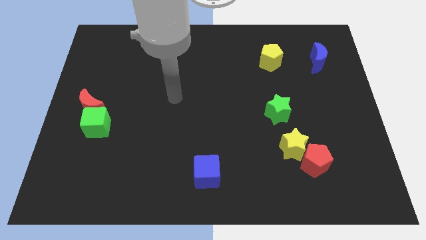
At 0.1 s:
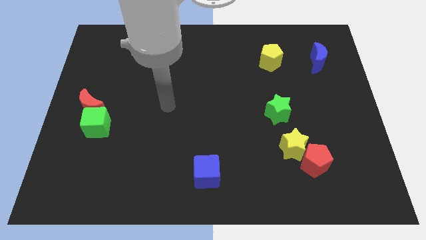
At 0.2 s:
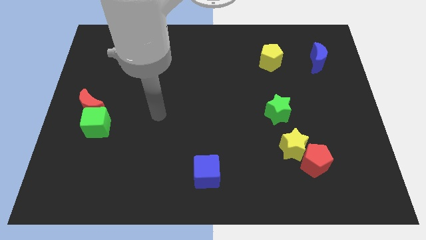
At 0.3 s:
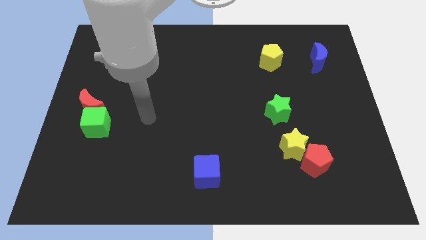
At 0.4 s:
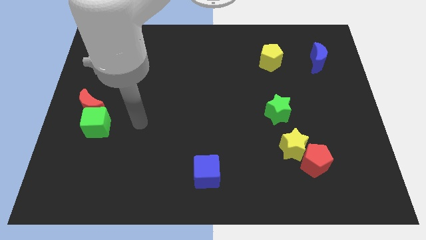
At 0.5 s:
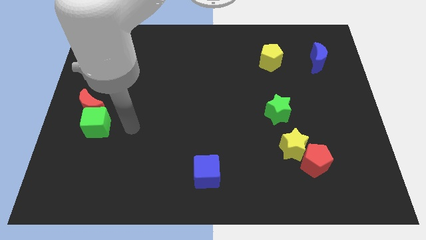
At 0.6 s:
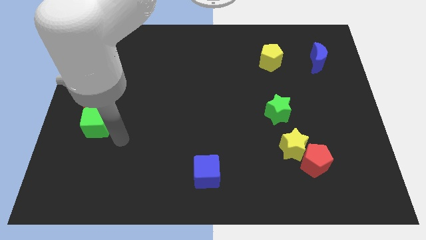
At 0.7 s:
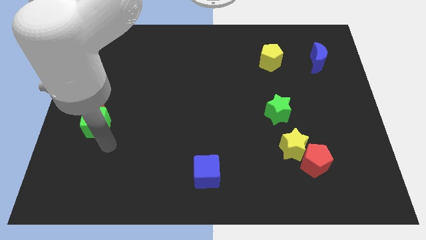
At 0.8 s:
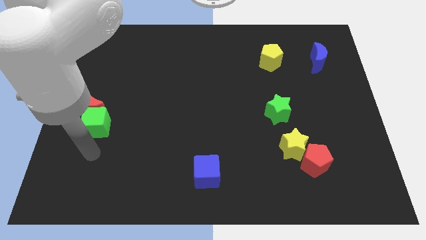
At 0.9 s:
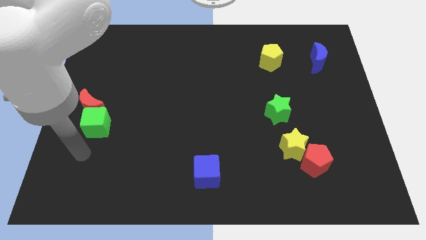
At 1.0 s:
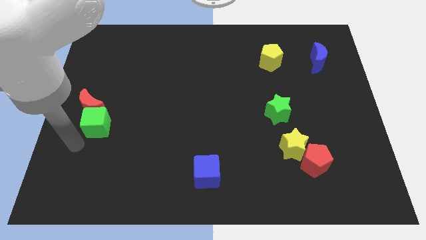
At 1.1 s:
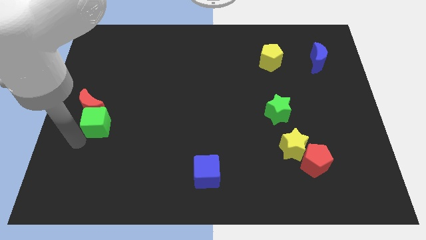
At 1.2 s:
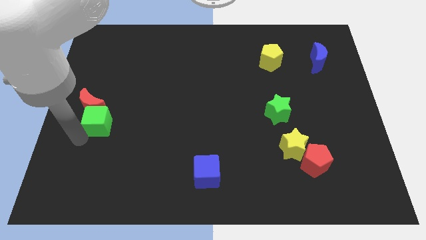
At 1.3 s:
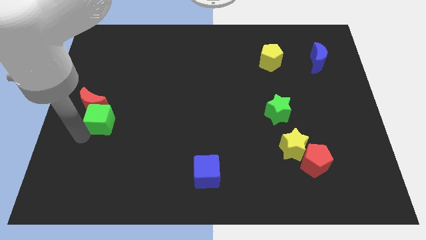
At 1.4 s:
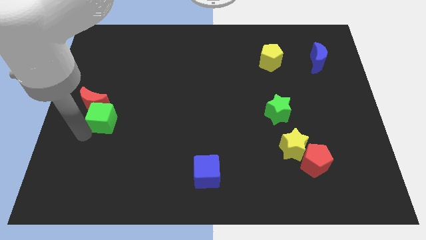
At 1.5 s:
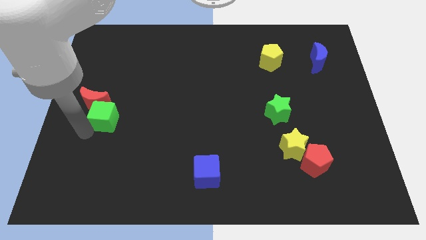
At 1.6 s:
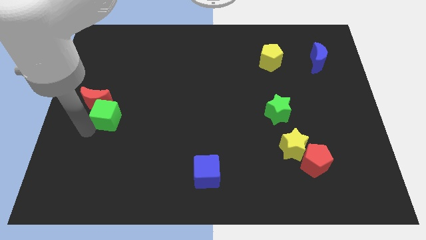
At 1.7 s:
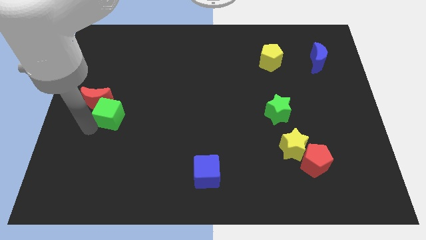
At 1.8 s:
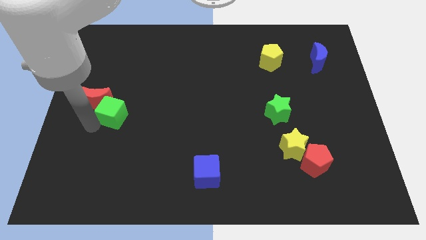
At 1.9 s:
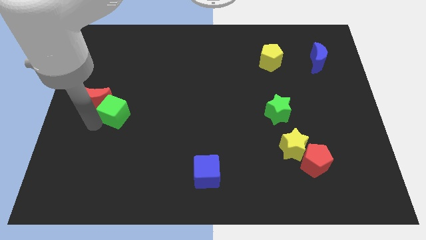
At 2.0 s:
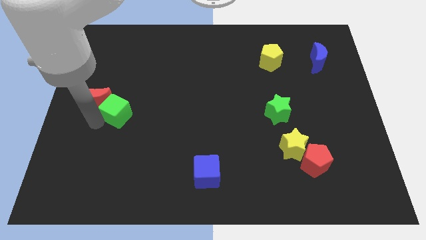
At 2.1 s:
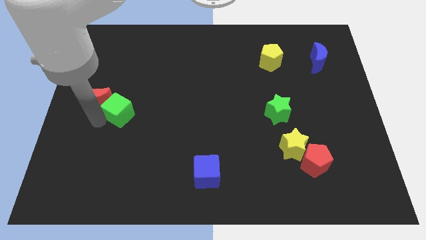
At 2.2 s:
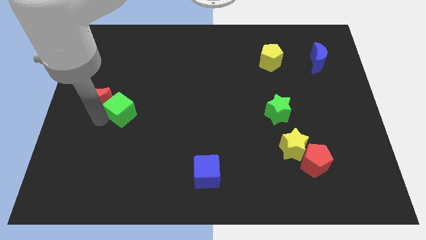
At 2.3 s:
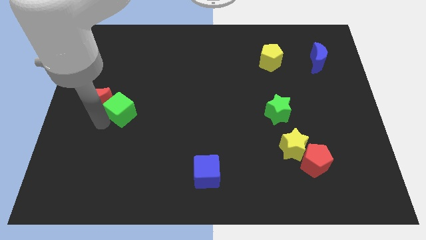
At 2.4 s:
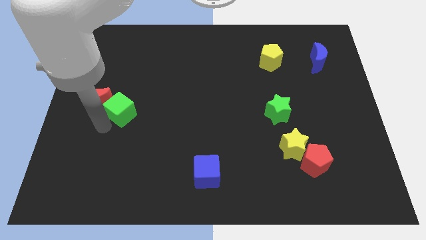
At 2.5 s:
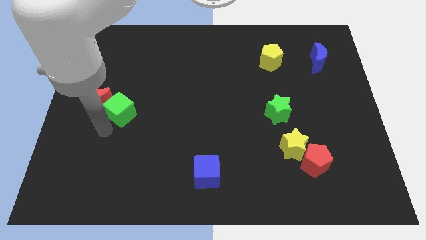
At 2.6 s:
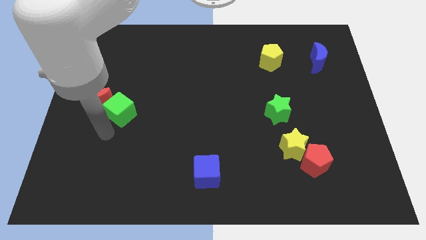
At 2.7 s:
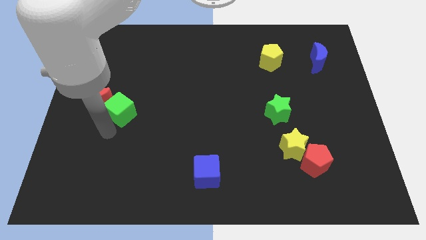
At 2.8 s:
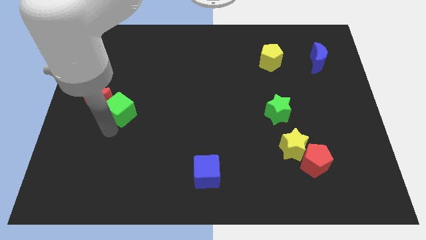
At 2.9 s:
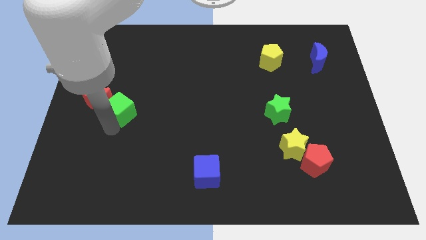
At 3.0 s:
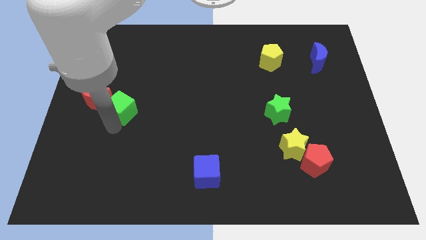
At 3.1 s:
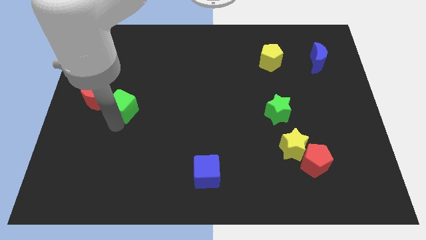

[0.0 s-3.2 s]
slightly push the green cube upwards and then right

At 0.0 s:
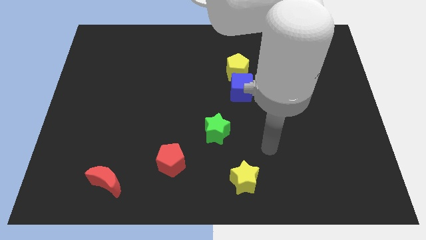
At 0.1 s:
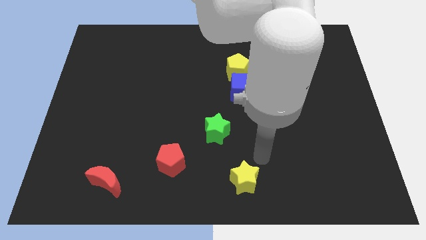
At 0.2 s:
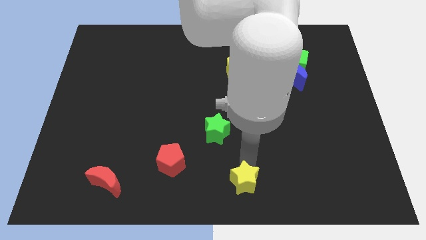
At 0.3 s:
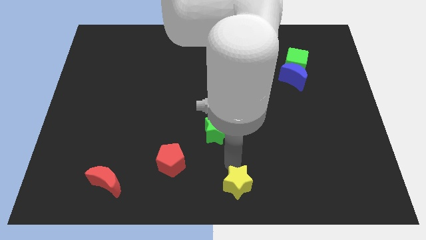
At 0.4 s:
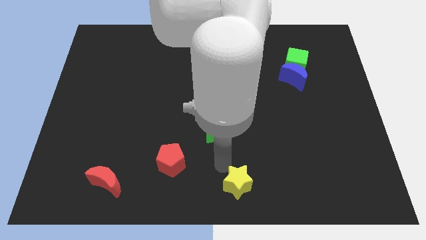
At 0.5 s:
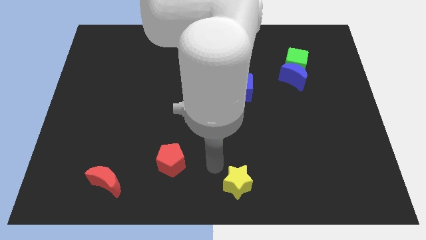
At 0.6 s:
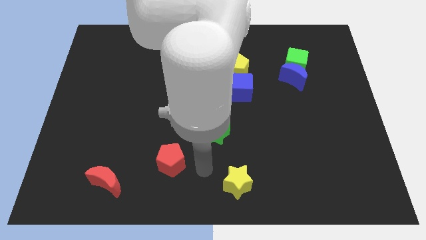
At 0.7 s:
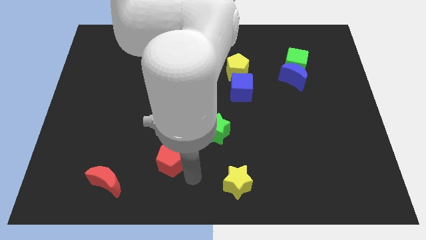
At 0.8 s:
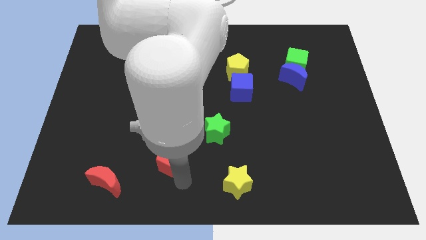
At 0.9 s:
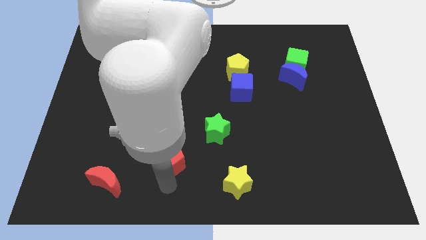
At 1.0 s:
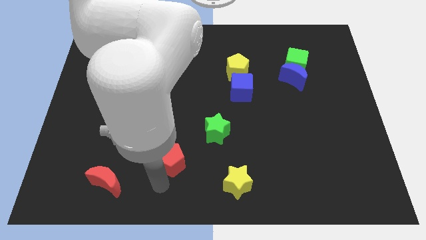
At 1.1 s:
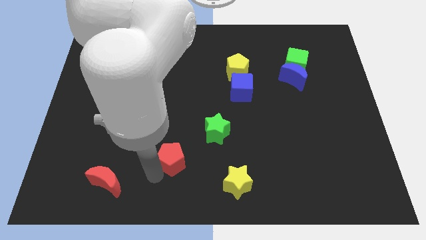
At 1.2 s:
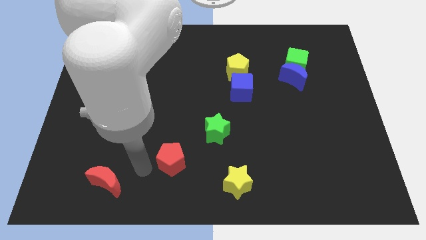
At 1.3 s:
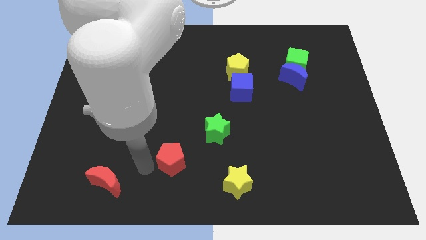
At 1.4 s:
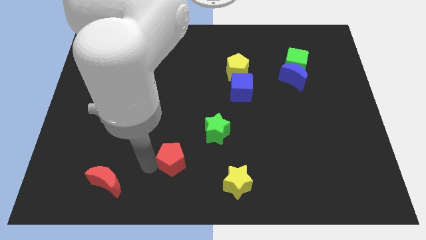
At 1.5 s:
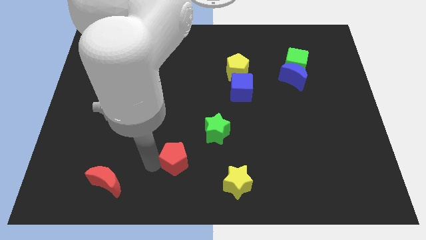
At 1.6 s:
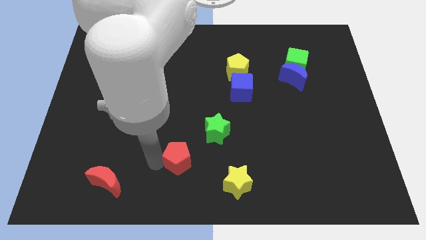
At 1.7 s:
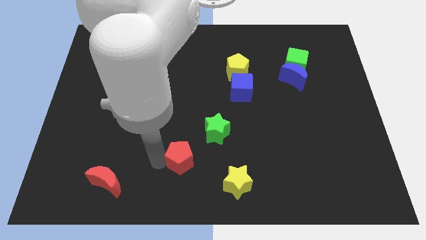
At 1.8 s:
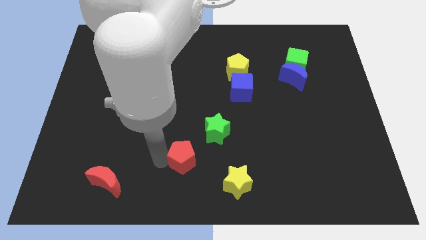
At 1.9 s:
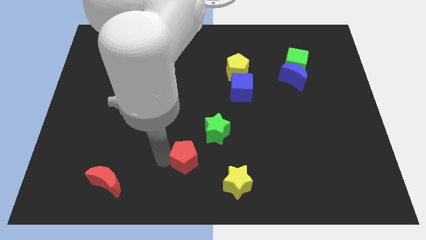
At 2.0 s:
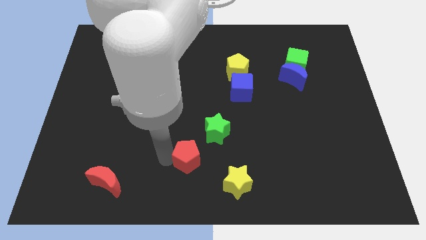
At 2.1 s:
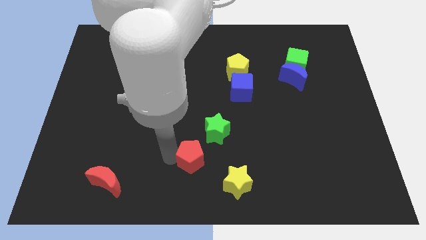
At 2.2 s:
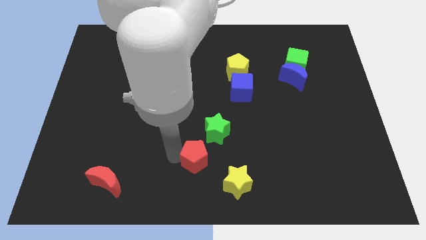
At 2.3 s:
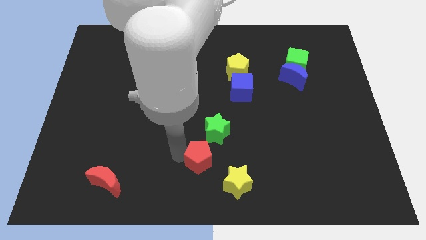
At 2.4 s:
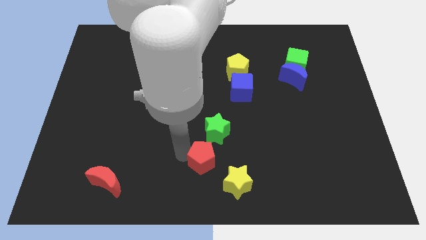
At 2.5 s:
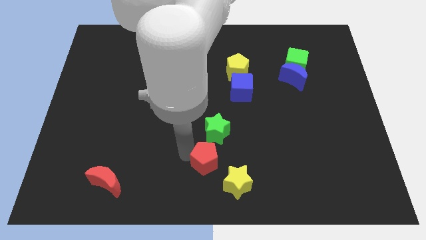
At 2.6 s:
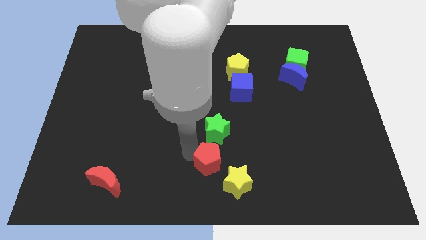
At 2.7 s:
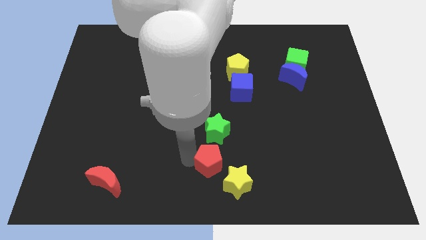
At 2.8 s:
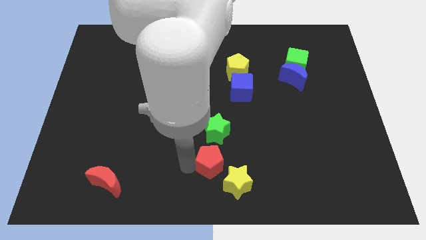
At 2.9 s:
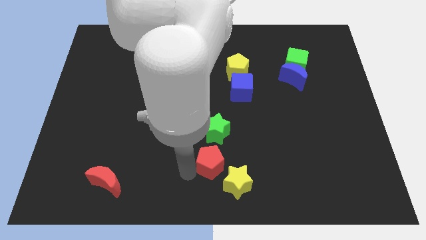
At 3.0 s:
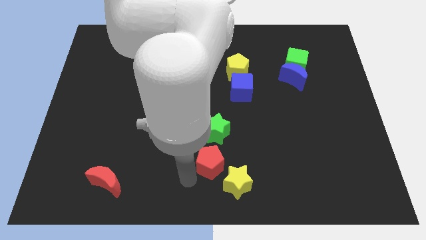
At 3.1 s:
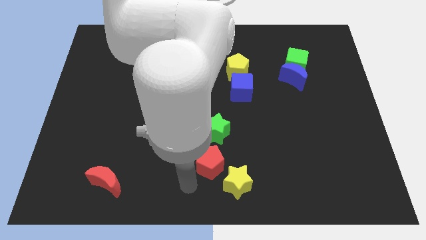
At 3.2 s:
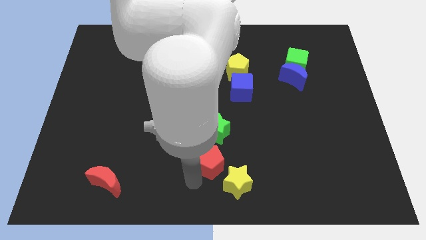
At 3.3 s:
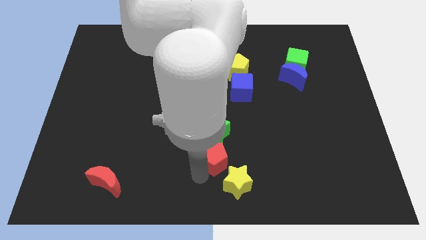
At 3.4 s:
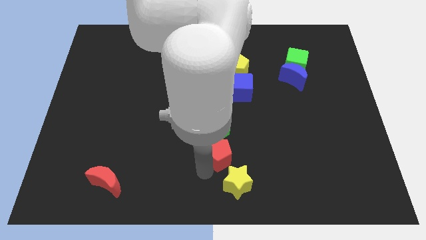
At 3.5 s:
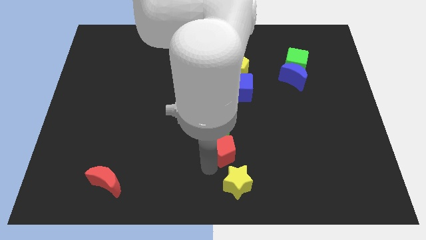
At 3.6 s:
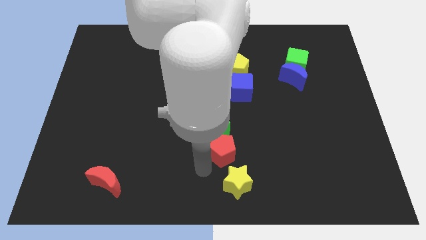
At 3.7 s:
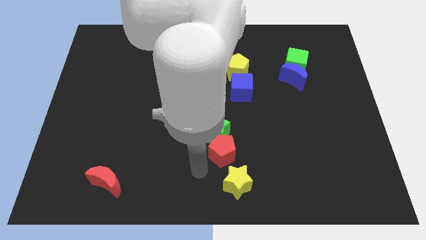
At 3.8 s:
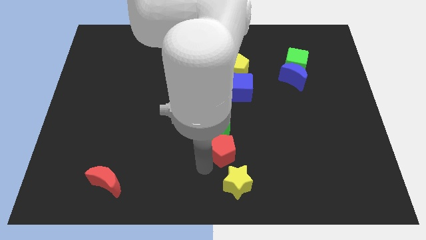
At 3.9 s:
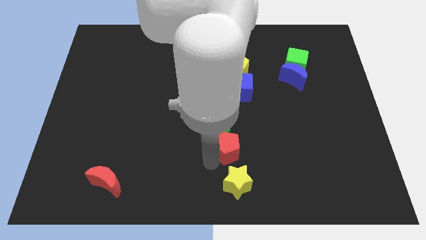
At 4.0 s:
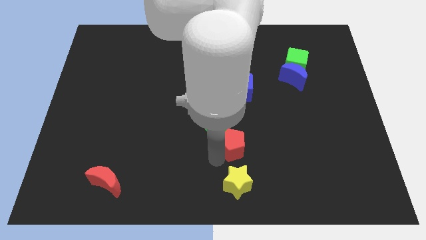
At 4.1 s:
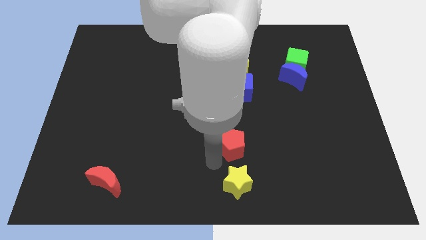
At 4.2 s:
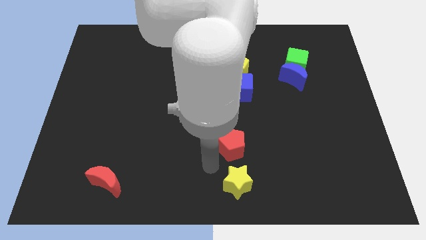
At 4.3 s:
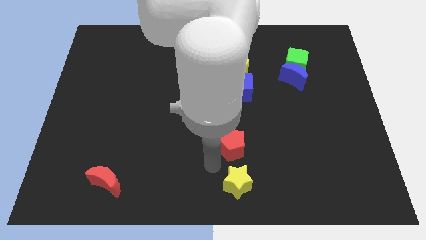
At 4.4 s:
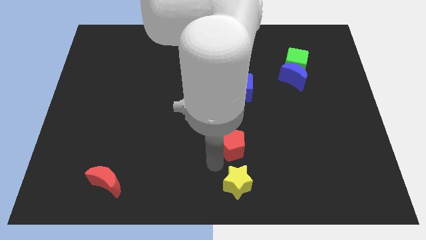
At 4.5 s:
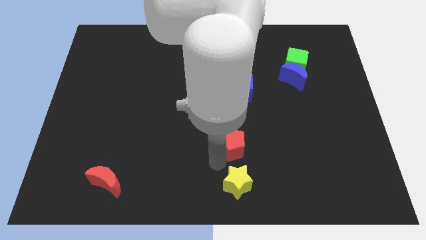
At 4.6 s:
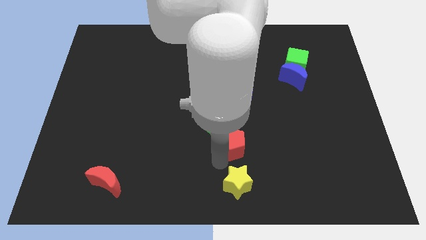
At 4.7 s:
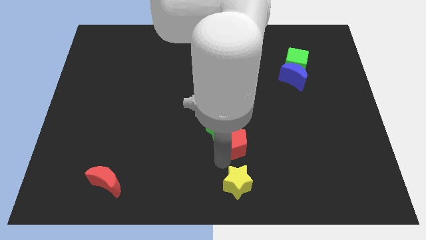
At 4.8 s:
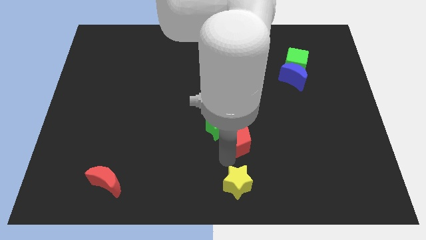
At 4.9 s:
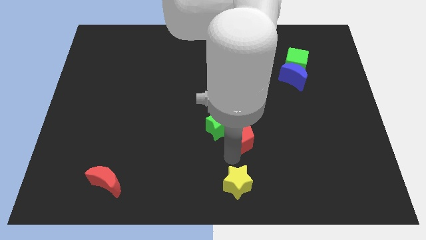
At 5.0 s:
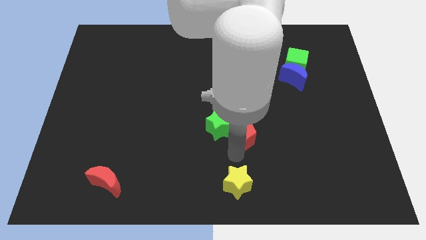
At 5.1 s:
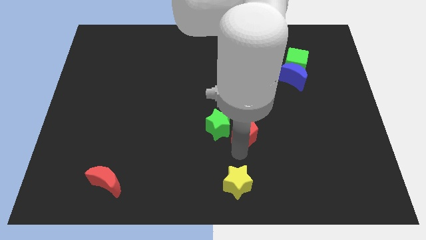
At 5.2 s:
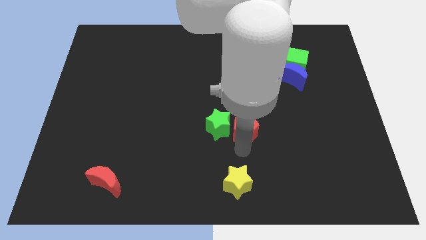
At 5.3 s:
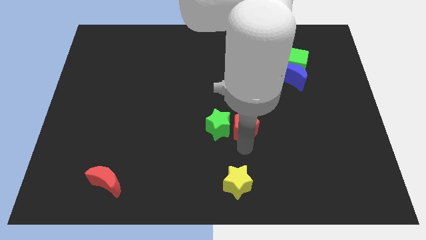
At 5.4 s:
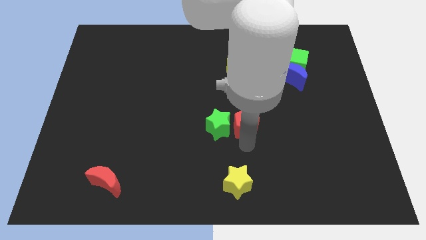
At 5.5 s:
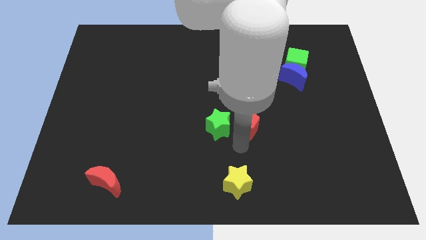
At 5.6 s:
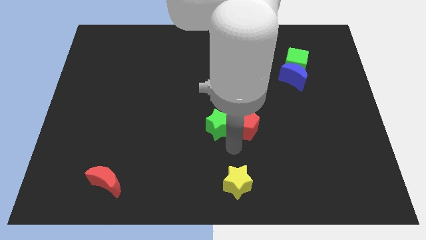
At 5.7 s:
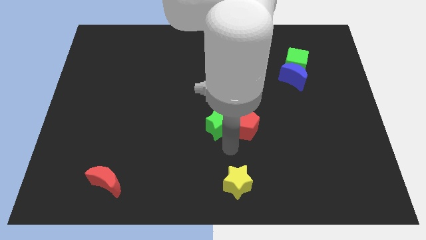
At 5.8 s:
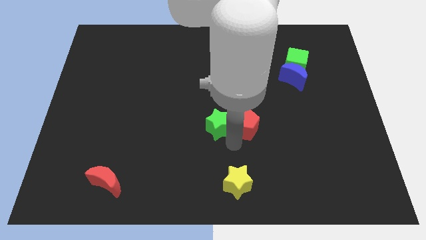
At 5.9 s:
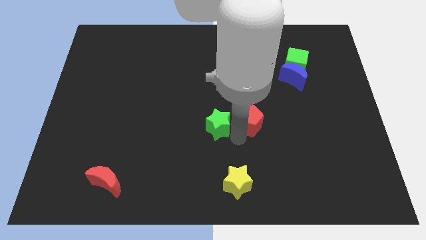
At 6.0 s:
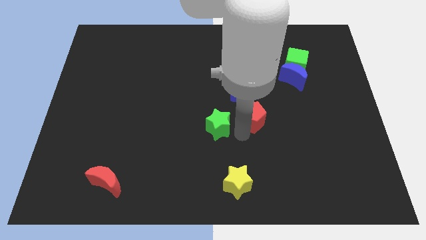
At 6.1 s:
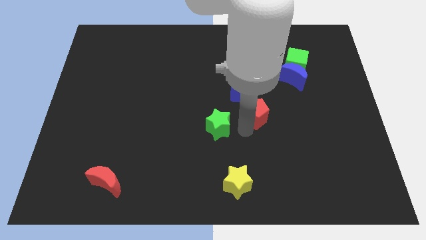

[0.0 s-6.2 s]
push the red pentagon diagonally upwards and right
